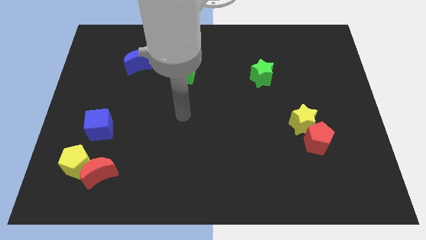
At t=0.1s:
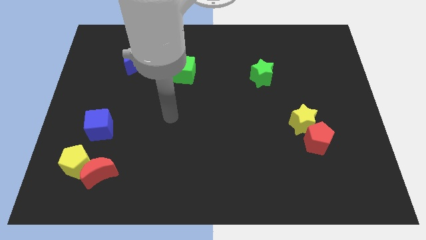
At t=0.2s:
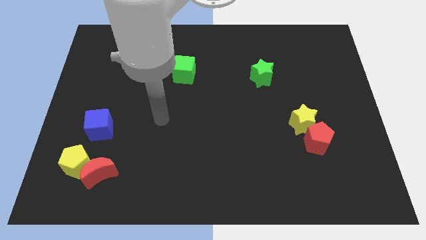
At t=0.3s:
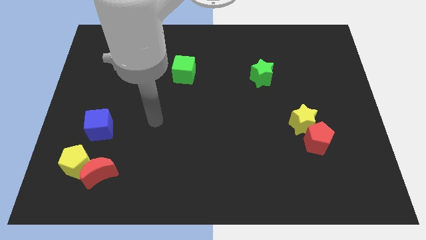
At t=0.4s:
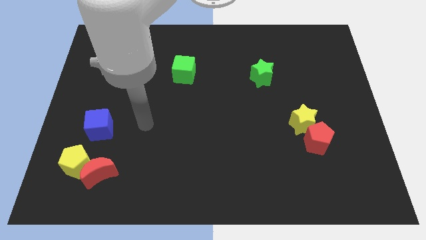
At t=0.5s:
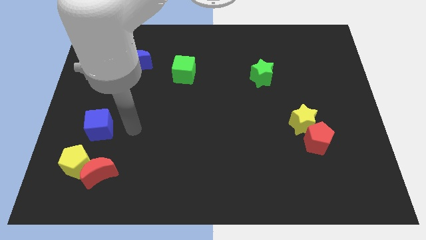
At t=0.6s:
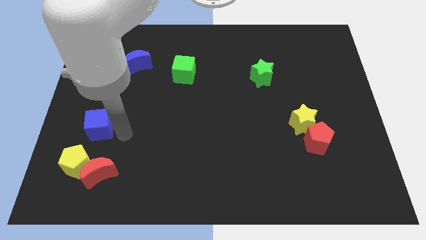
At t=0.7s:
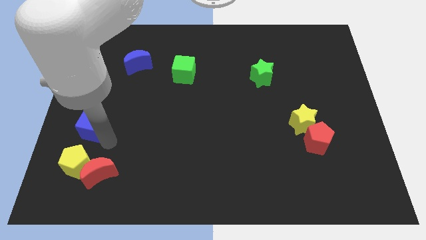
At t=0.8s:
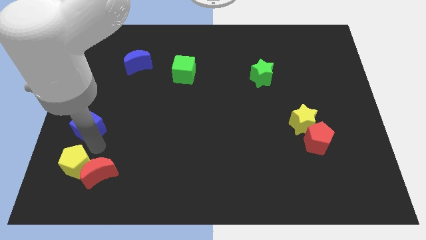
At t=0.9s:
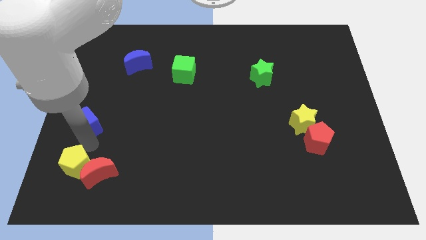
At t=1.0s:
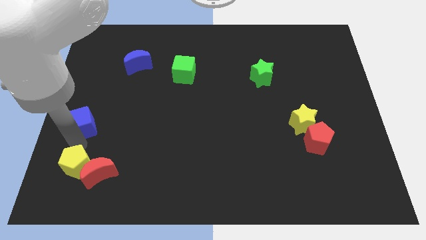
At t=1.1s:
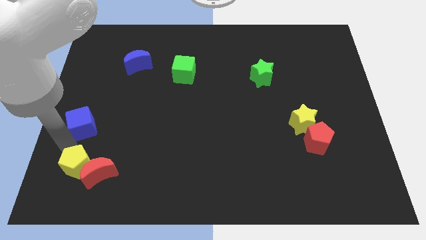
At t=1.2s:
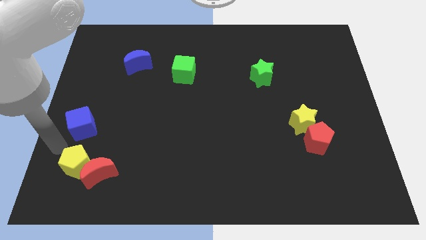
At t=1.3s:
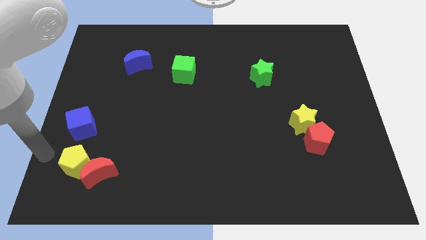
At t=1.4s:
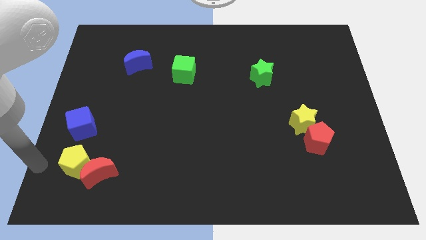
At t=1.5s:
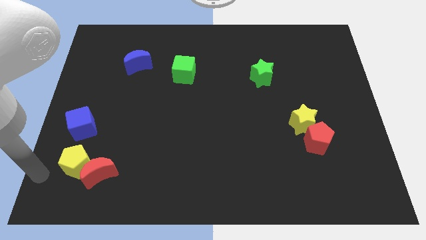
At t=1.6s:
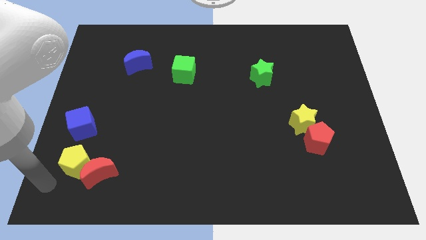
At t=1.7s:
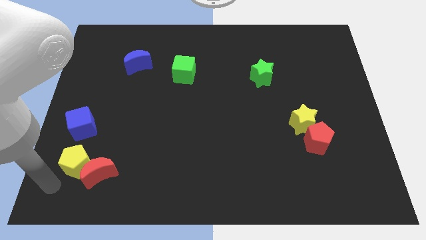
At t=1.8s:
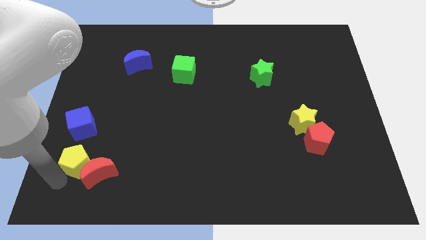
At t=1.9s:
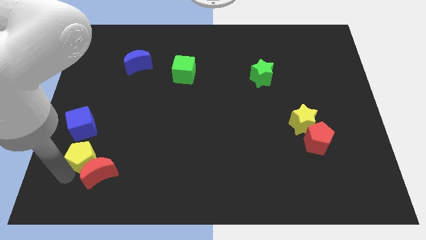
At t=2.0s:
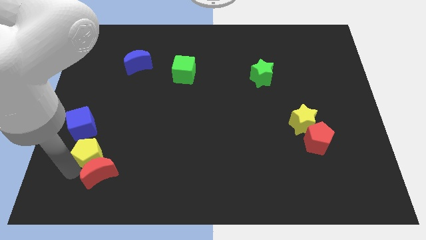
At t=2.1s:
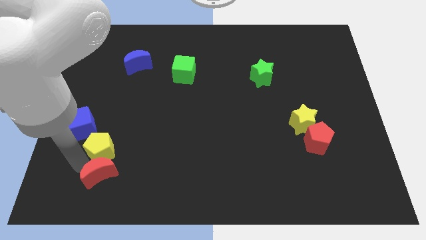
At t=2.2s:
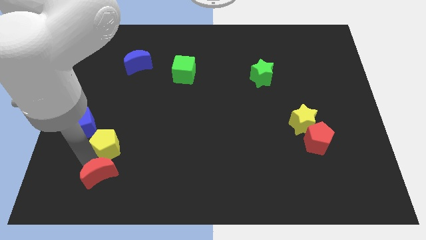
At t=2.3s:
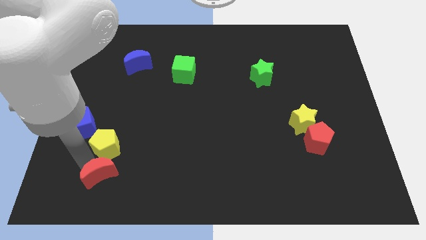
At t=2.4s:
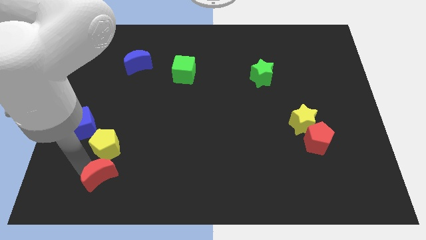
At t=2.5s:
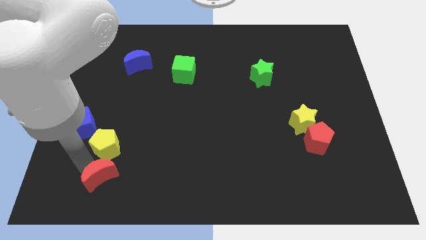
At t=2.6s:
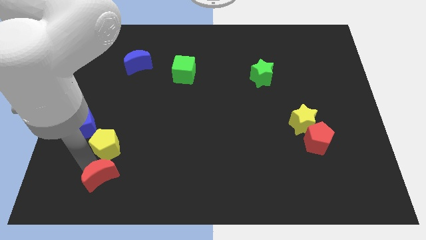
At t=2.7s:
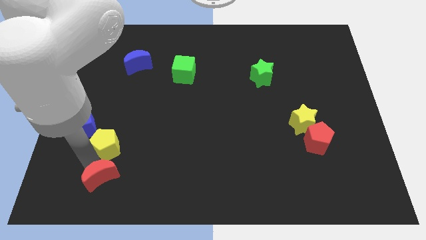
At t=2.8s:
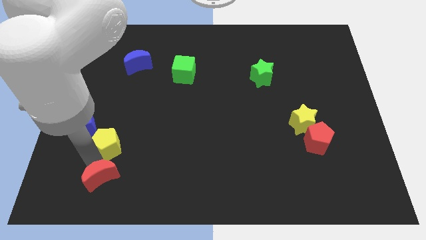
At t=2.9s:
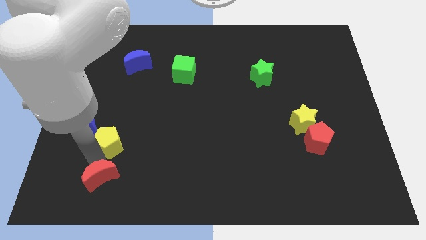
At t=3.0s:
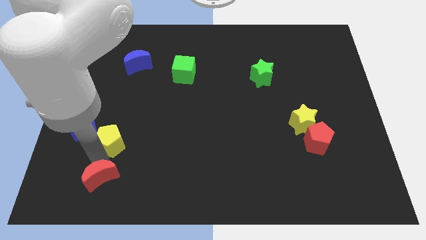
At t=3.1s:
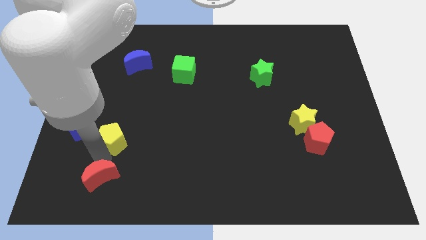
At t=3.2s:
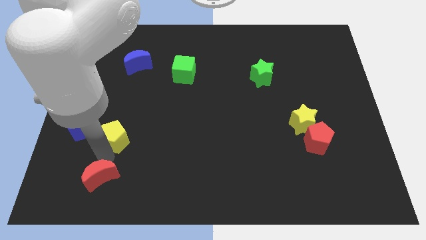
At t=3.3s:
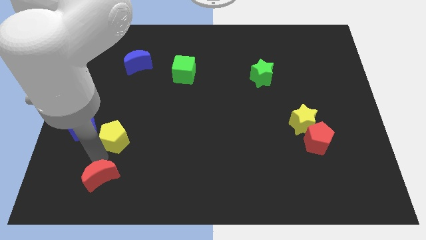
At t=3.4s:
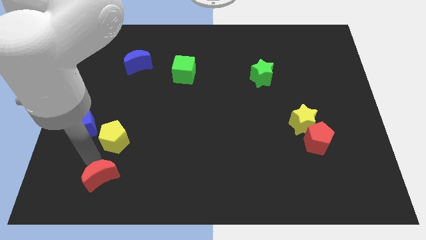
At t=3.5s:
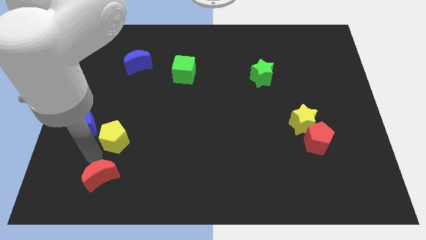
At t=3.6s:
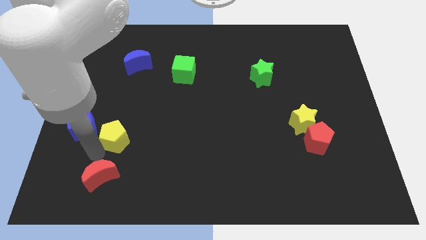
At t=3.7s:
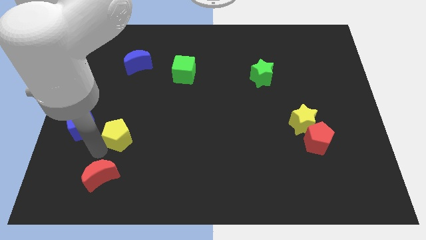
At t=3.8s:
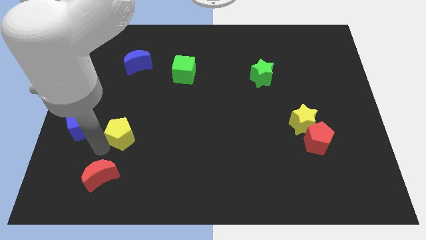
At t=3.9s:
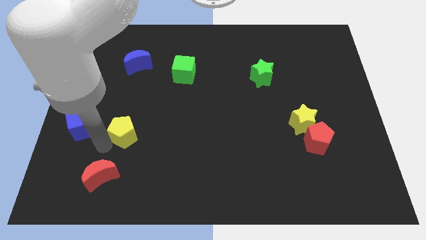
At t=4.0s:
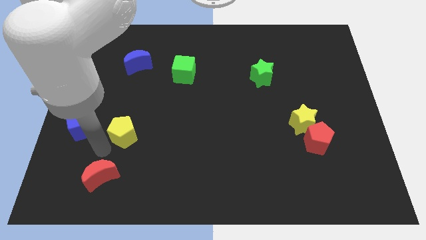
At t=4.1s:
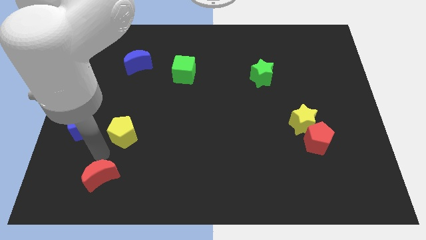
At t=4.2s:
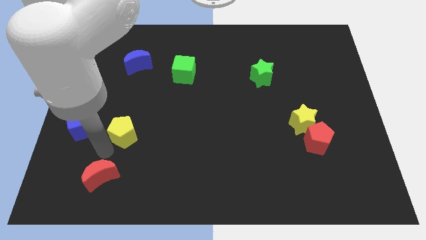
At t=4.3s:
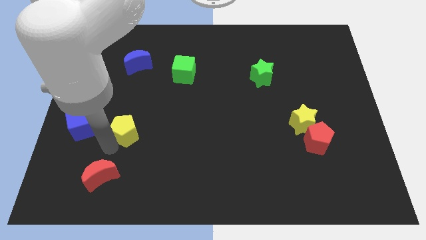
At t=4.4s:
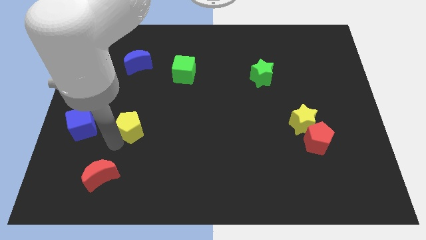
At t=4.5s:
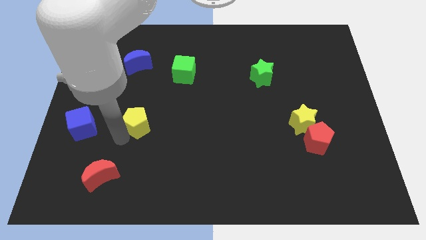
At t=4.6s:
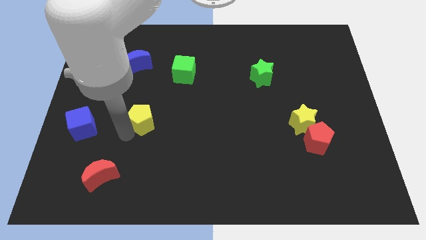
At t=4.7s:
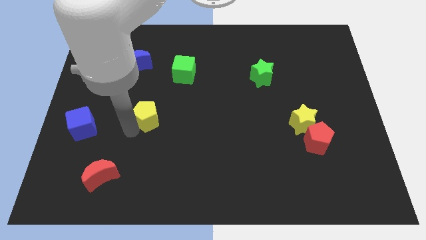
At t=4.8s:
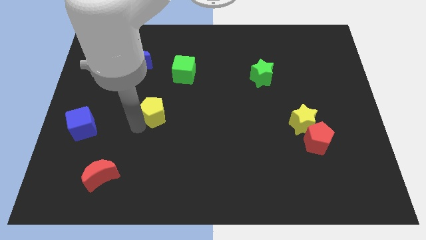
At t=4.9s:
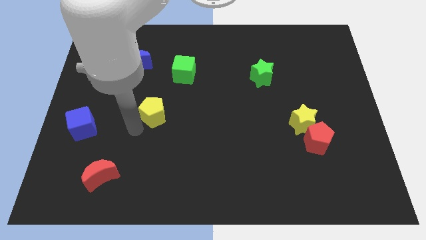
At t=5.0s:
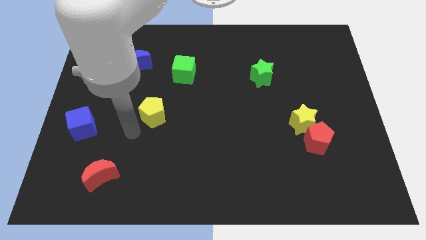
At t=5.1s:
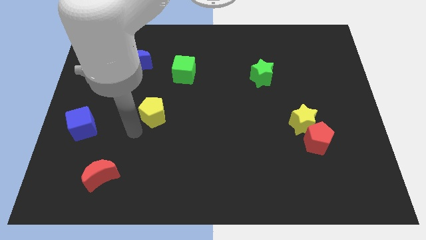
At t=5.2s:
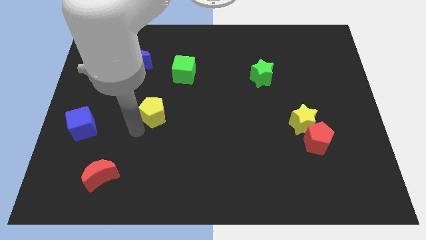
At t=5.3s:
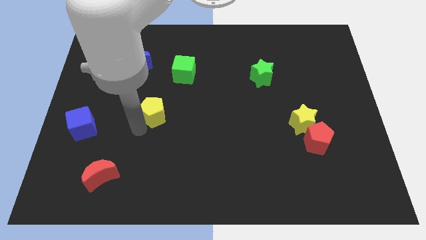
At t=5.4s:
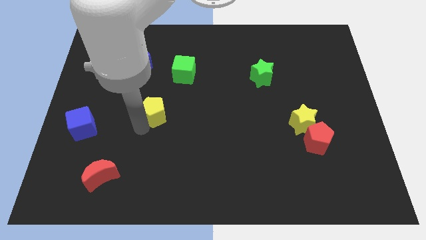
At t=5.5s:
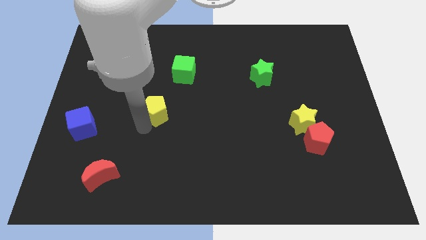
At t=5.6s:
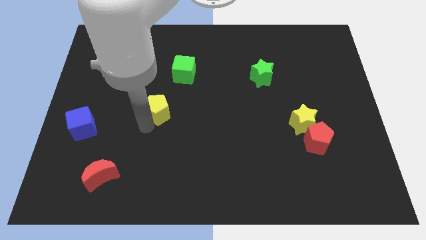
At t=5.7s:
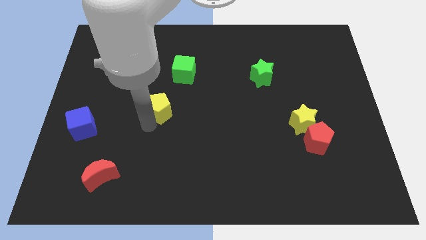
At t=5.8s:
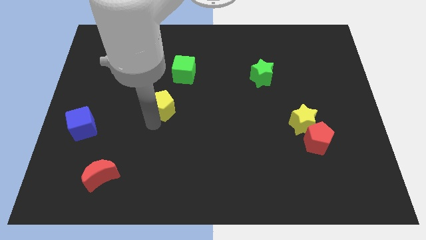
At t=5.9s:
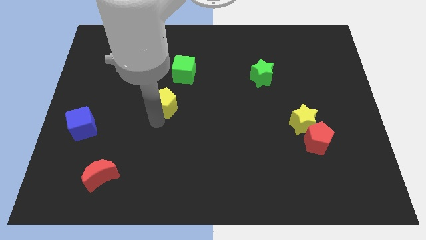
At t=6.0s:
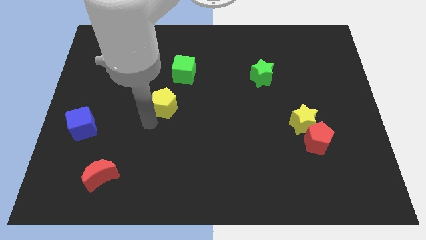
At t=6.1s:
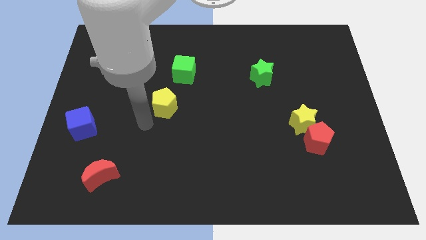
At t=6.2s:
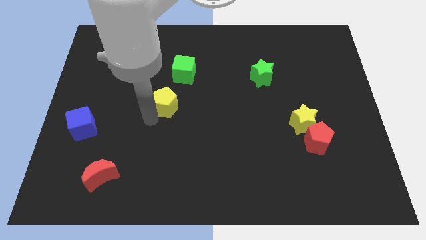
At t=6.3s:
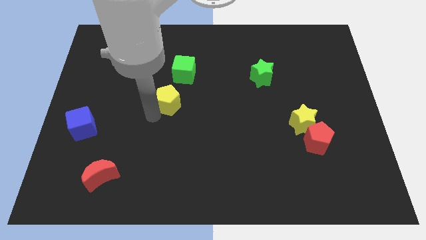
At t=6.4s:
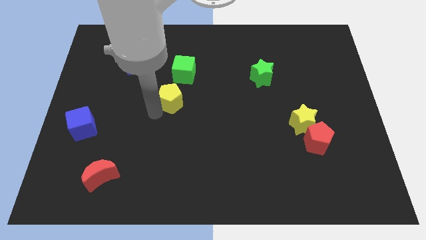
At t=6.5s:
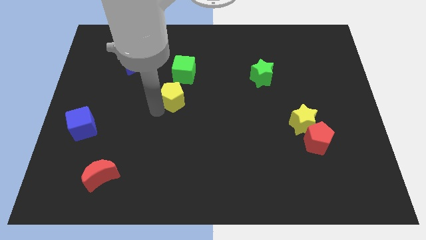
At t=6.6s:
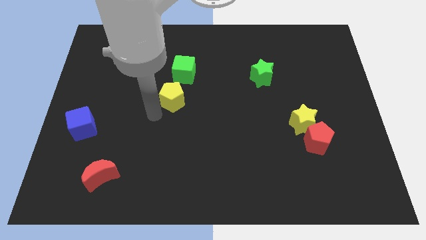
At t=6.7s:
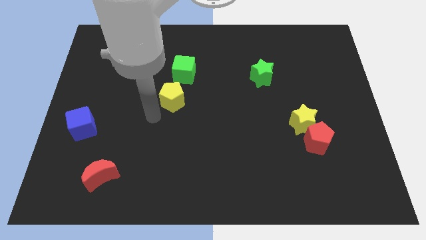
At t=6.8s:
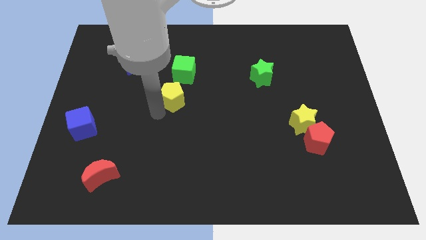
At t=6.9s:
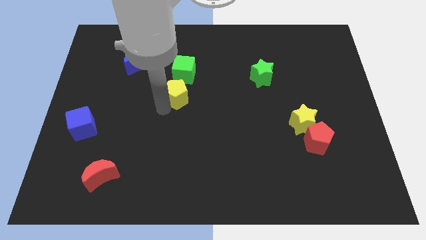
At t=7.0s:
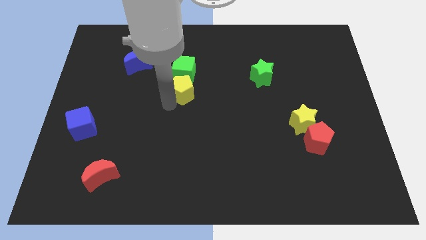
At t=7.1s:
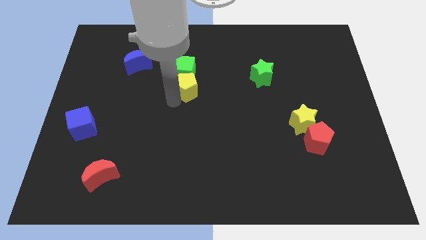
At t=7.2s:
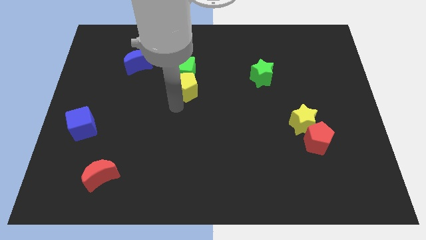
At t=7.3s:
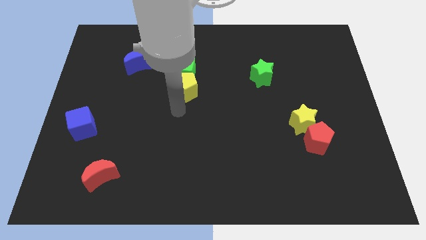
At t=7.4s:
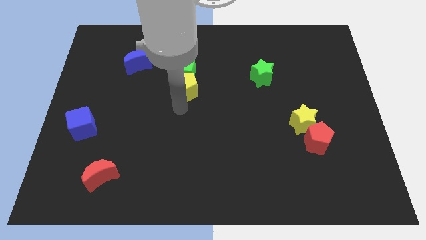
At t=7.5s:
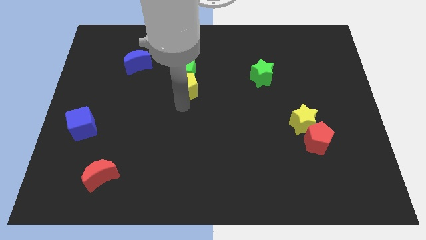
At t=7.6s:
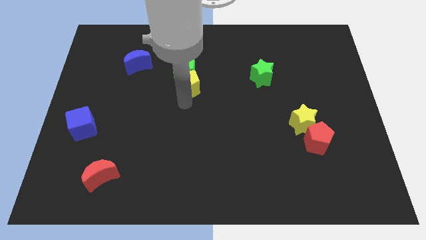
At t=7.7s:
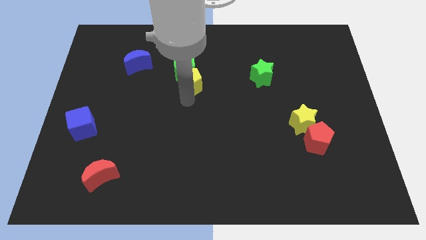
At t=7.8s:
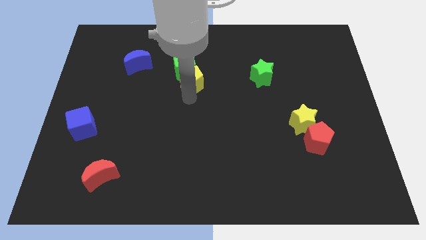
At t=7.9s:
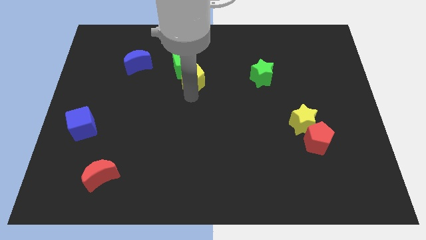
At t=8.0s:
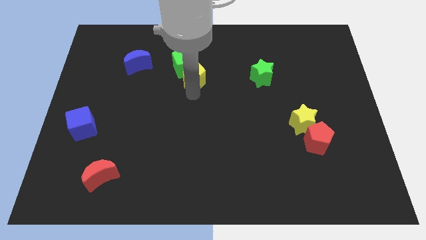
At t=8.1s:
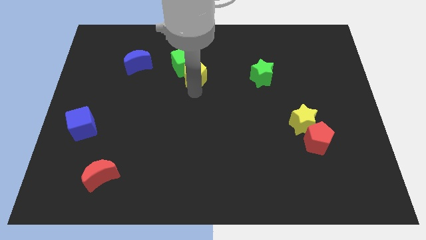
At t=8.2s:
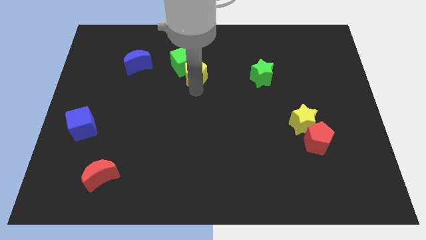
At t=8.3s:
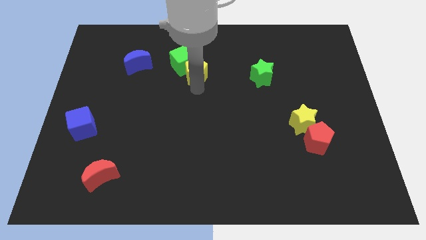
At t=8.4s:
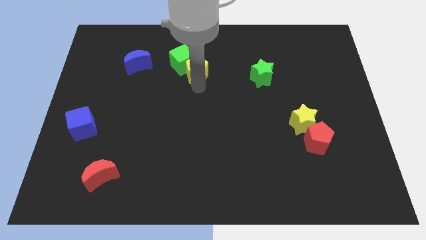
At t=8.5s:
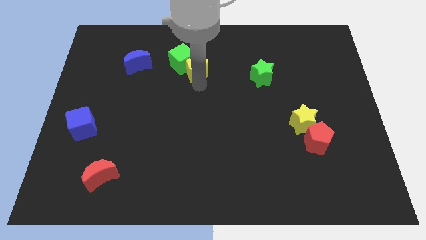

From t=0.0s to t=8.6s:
put the yellow pentagon to the right of the blue moon
